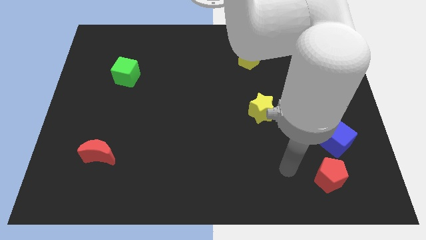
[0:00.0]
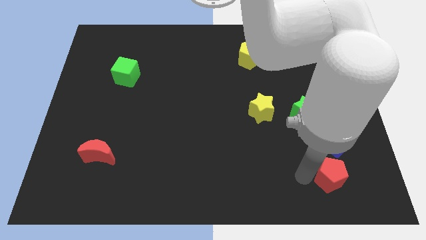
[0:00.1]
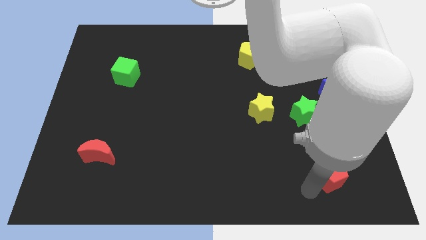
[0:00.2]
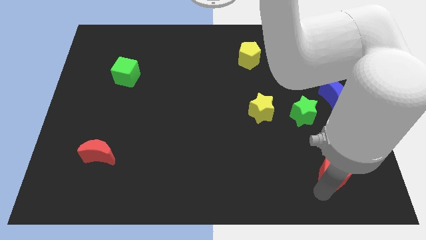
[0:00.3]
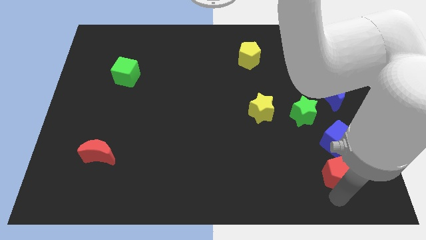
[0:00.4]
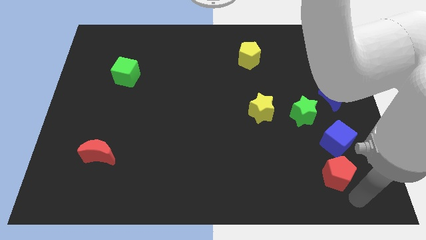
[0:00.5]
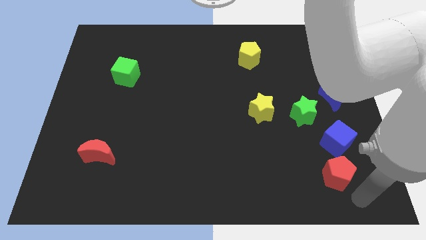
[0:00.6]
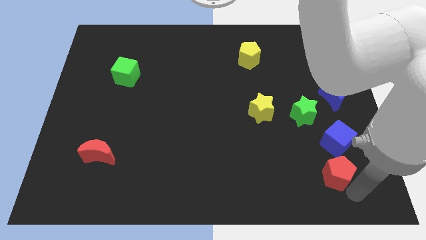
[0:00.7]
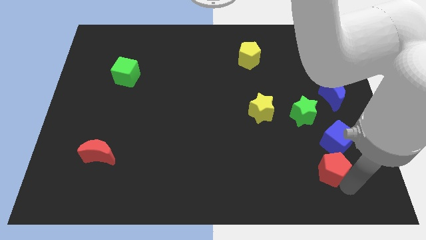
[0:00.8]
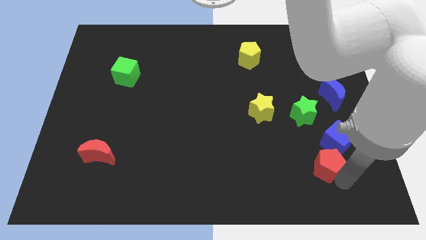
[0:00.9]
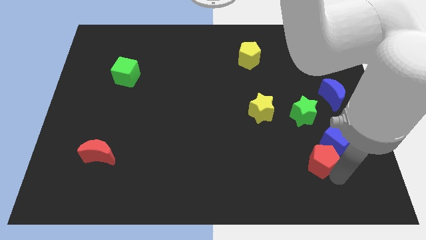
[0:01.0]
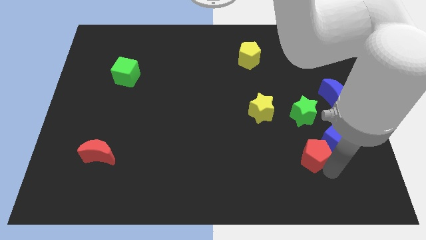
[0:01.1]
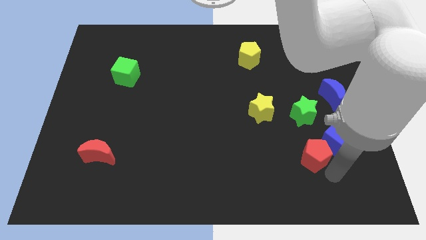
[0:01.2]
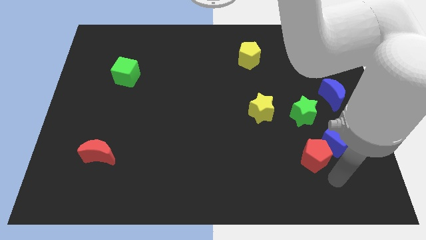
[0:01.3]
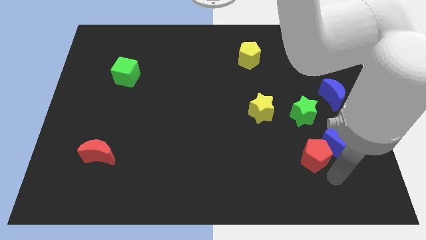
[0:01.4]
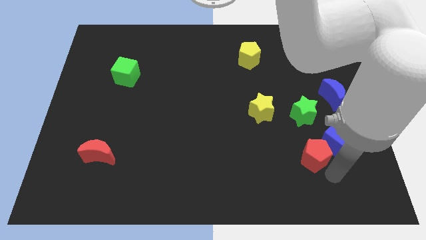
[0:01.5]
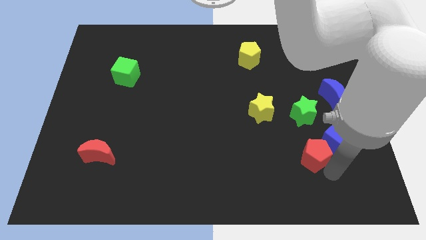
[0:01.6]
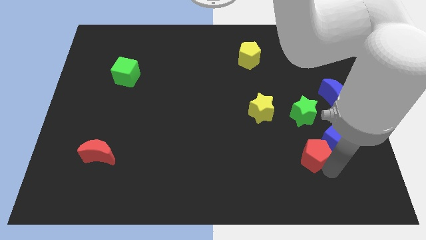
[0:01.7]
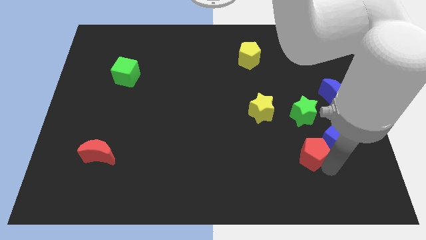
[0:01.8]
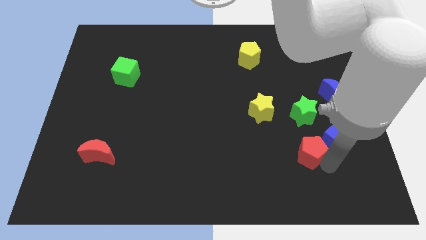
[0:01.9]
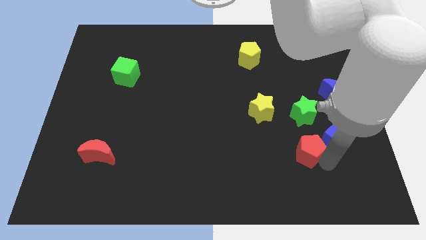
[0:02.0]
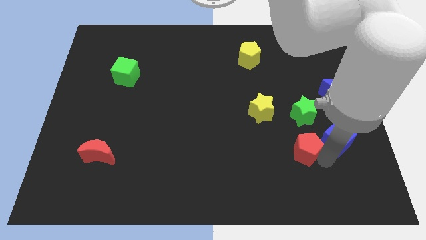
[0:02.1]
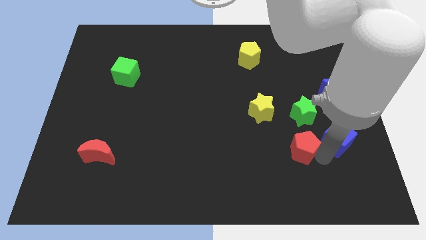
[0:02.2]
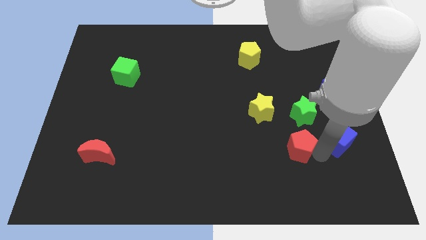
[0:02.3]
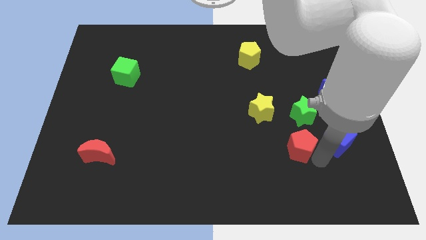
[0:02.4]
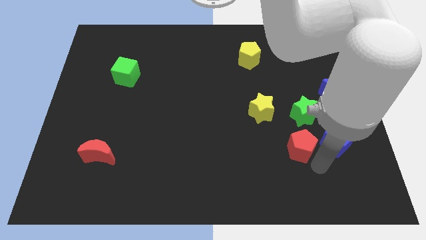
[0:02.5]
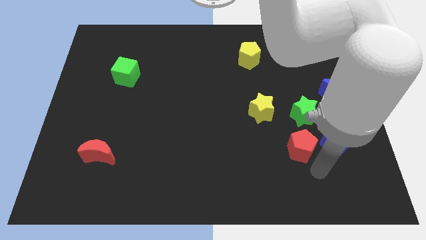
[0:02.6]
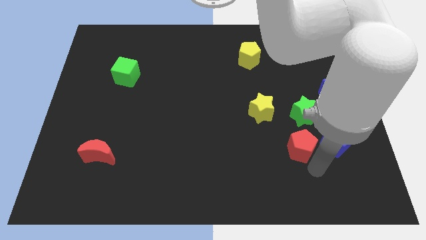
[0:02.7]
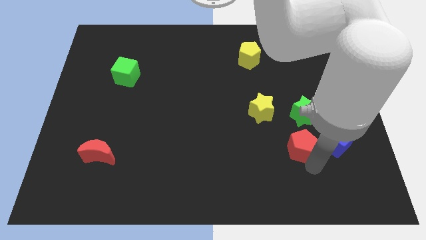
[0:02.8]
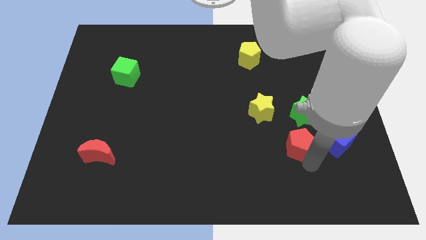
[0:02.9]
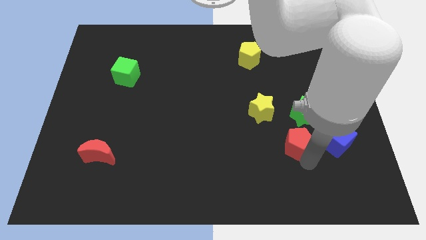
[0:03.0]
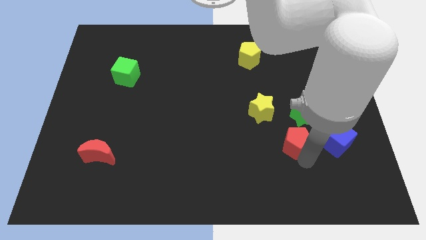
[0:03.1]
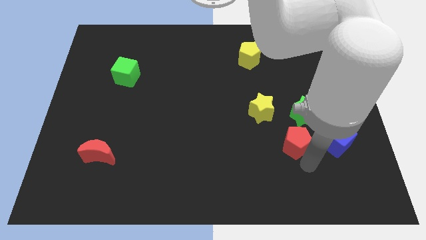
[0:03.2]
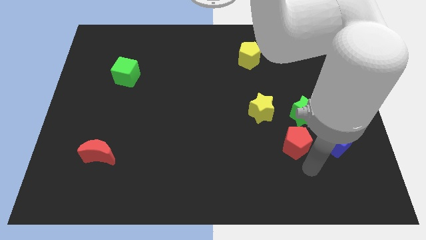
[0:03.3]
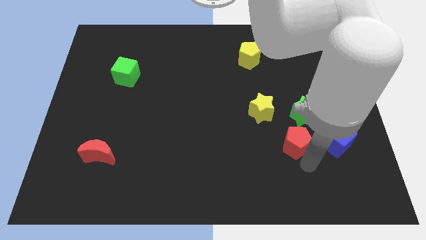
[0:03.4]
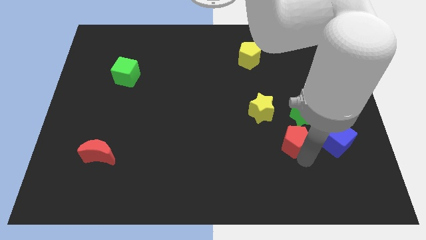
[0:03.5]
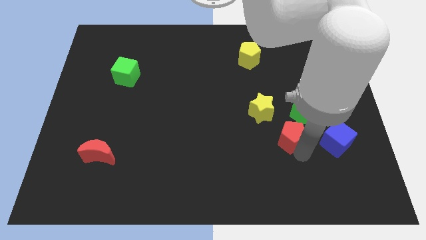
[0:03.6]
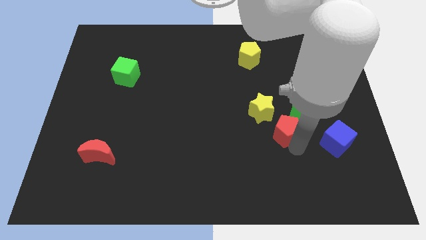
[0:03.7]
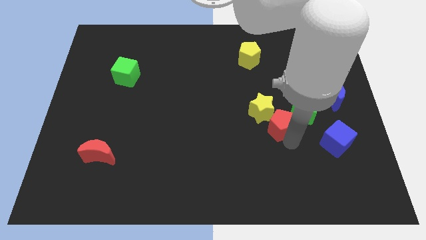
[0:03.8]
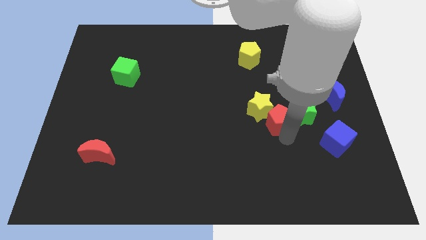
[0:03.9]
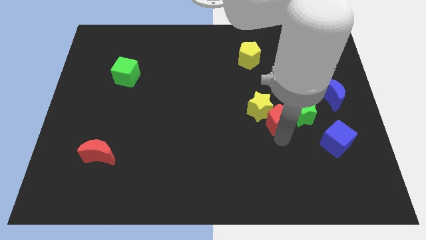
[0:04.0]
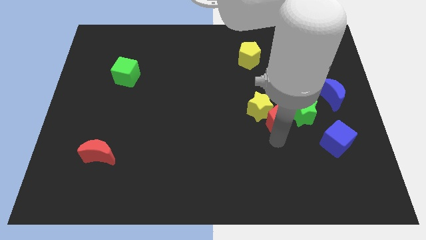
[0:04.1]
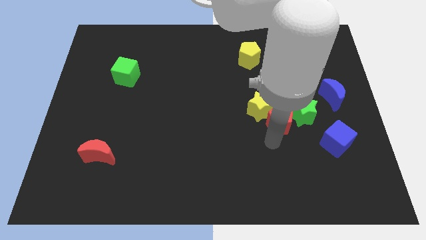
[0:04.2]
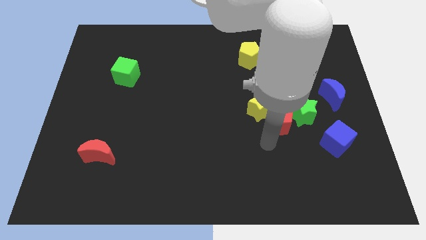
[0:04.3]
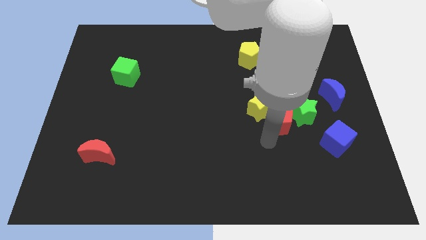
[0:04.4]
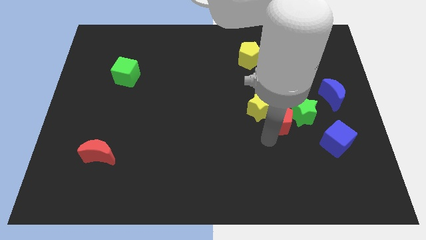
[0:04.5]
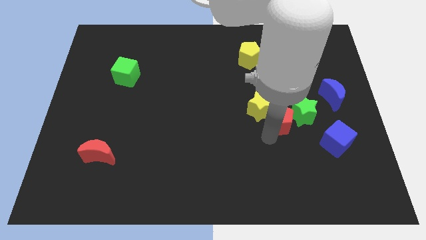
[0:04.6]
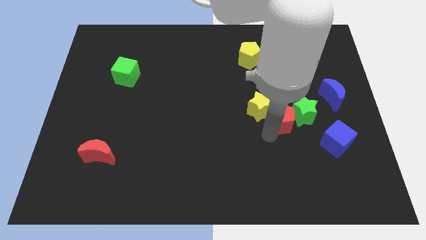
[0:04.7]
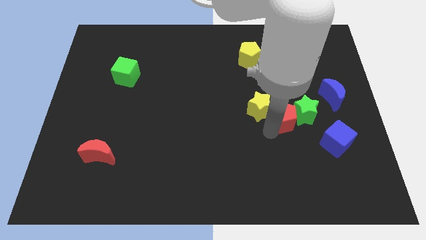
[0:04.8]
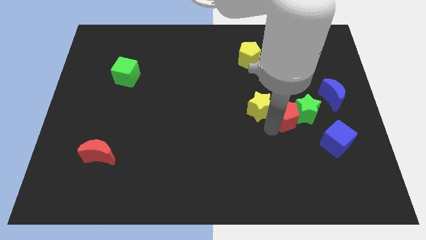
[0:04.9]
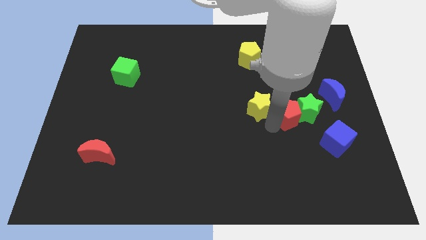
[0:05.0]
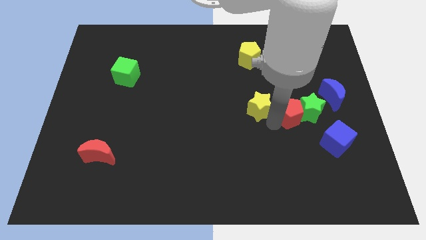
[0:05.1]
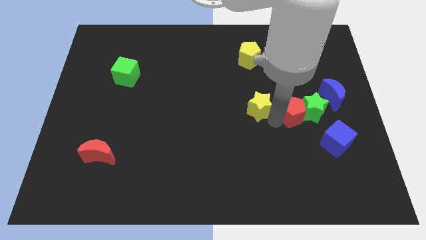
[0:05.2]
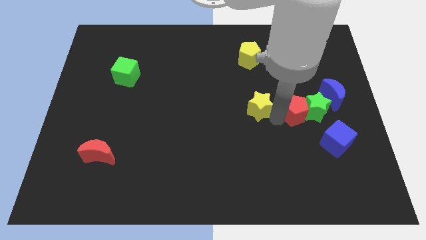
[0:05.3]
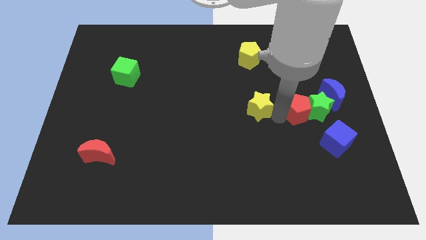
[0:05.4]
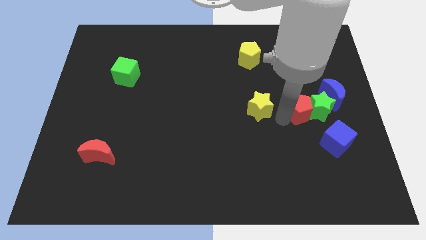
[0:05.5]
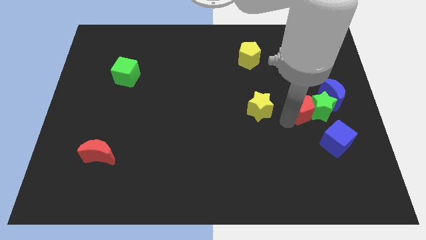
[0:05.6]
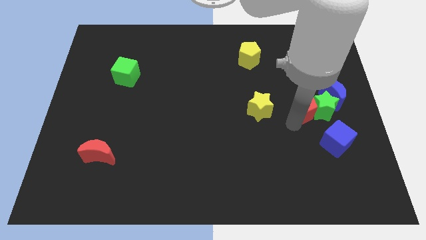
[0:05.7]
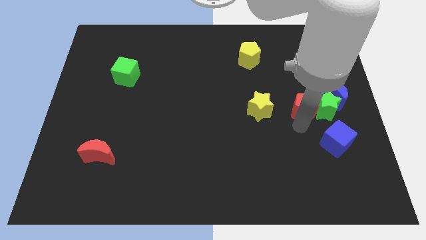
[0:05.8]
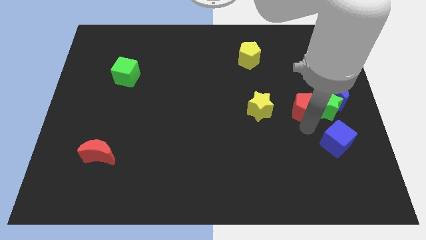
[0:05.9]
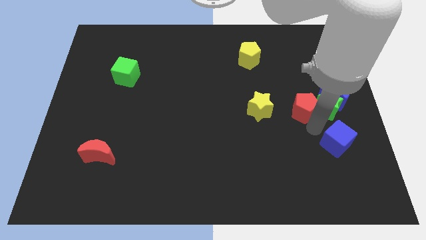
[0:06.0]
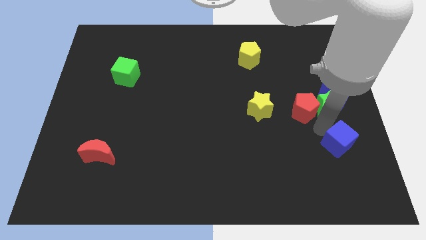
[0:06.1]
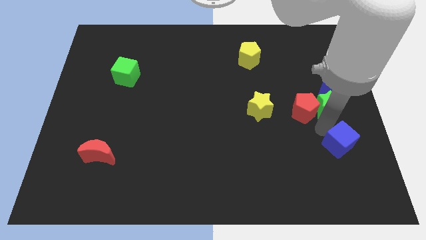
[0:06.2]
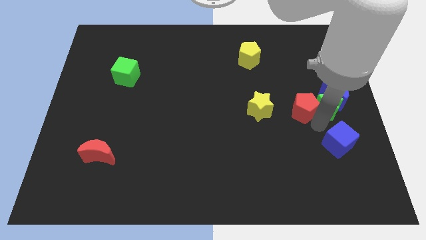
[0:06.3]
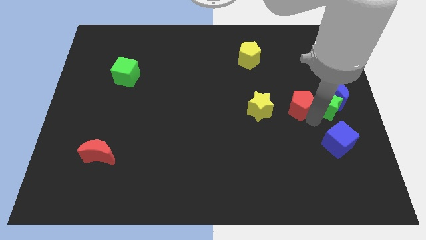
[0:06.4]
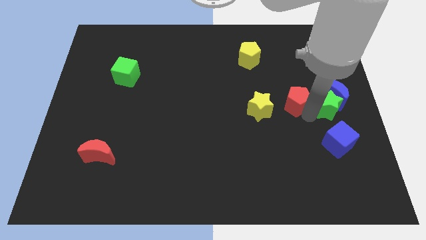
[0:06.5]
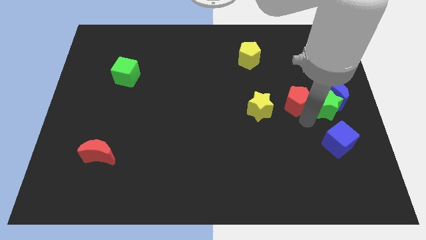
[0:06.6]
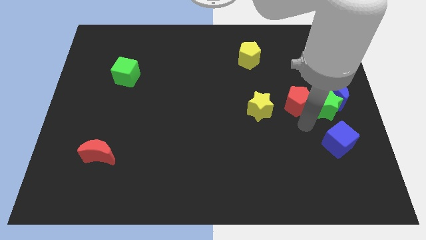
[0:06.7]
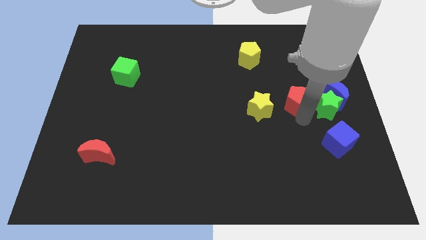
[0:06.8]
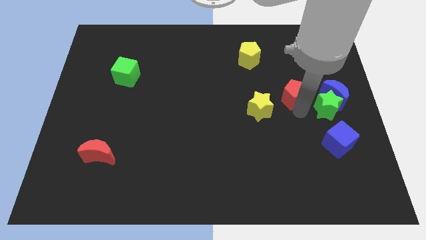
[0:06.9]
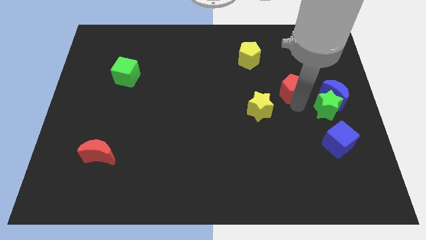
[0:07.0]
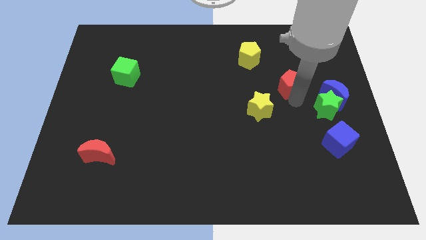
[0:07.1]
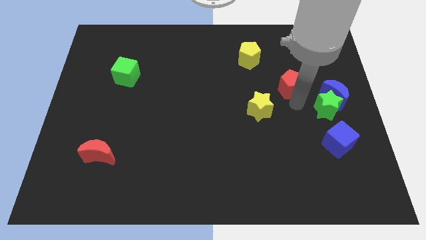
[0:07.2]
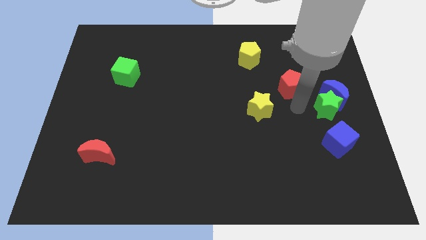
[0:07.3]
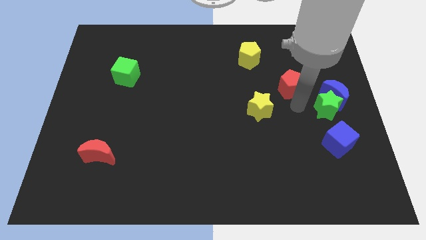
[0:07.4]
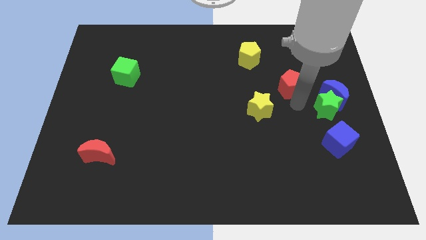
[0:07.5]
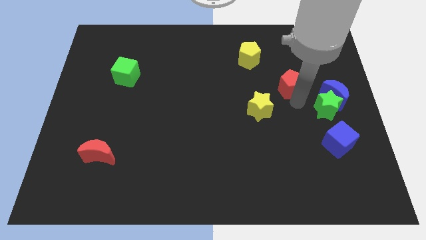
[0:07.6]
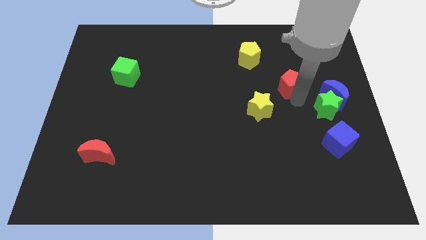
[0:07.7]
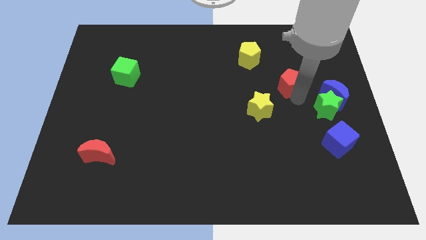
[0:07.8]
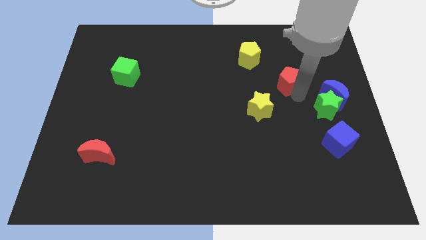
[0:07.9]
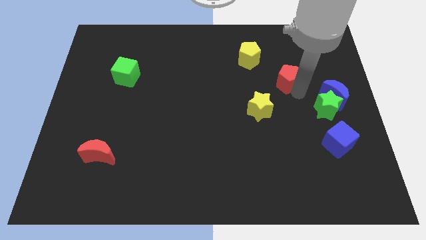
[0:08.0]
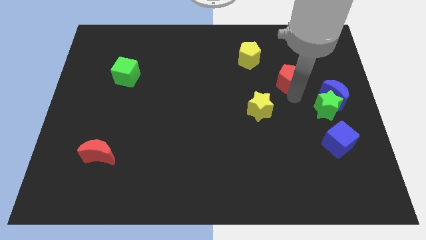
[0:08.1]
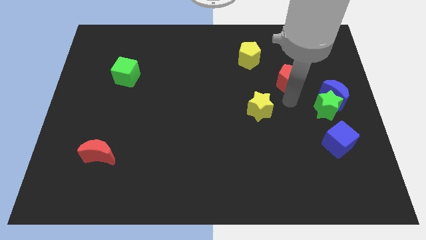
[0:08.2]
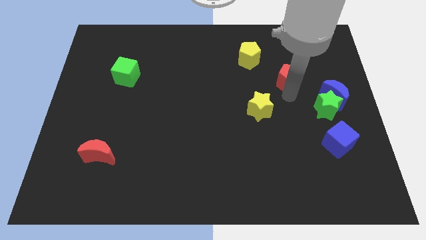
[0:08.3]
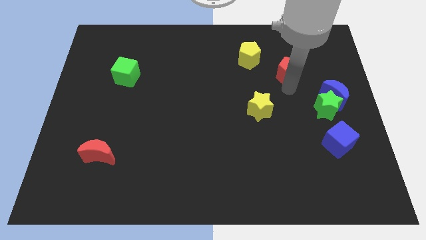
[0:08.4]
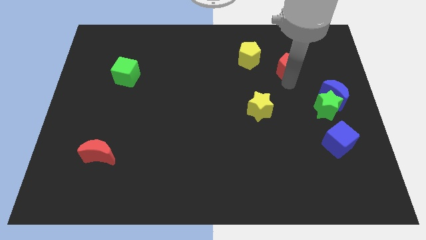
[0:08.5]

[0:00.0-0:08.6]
slide the red pentagon to the right of the yellow pentagon
